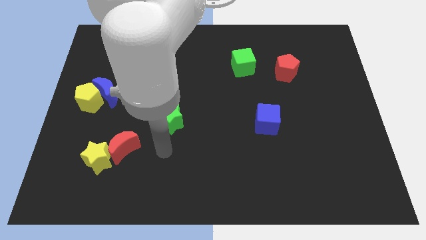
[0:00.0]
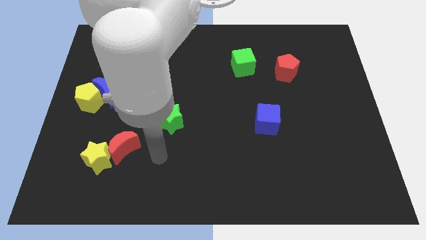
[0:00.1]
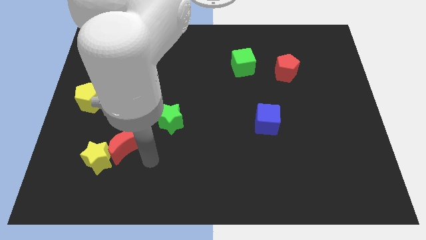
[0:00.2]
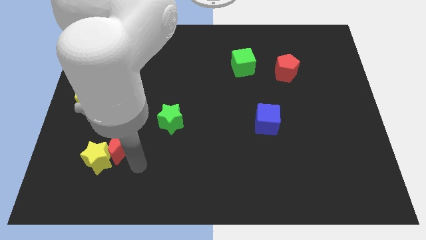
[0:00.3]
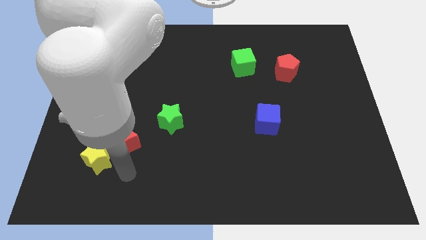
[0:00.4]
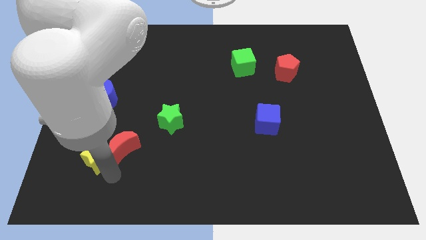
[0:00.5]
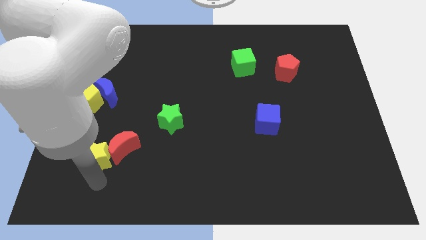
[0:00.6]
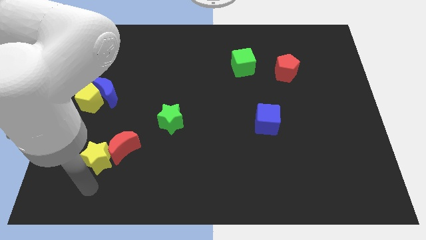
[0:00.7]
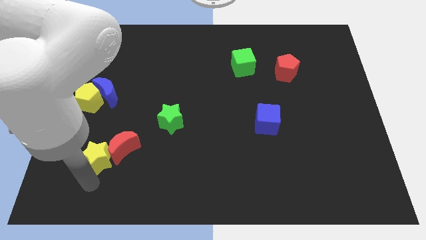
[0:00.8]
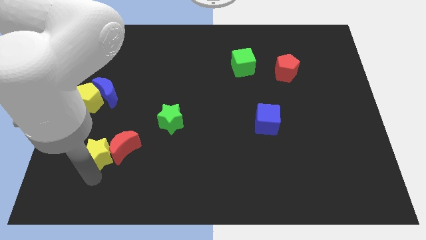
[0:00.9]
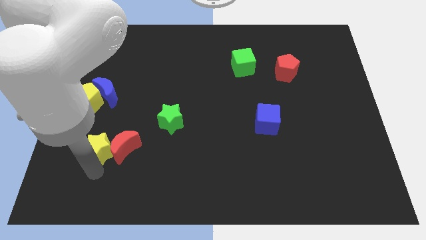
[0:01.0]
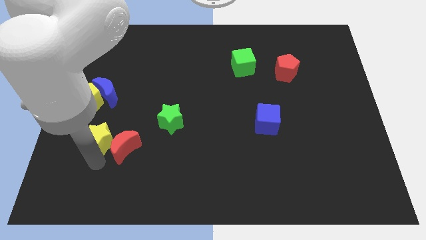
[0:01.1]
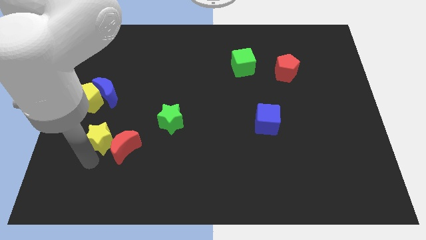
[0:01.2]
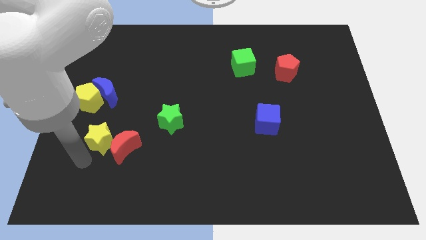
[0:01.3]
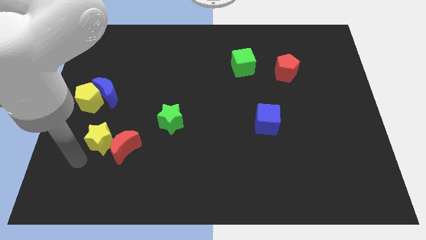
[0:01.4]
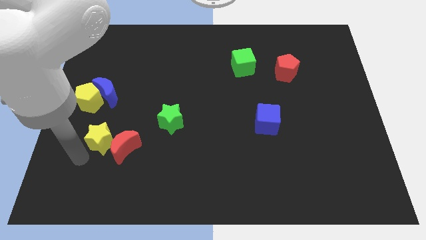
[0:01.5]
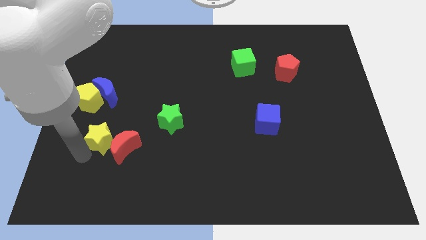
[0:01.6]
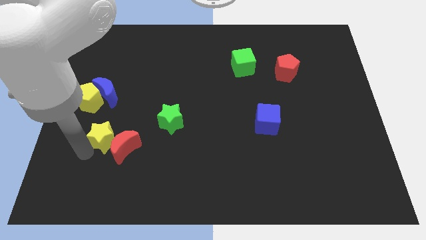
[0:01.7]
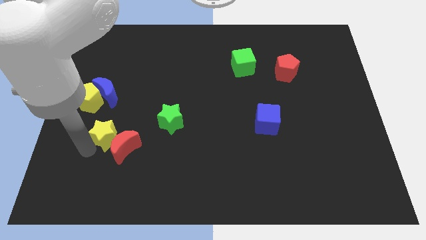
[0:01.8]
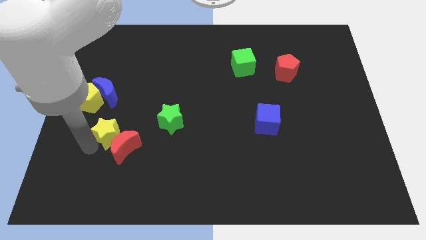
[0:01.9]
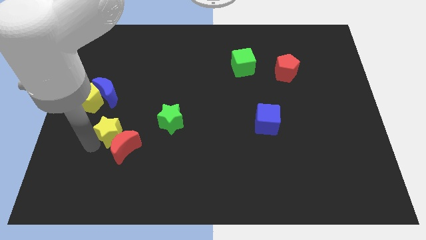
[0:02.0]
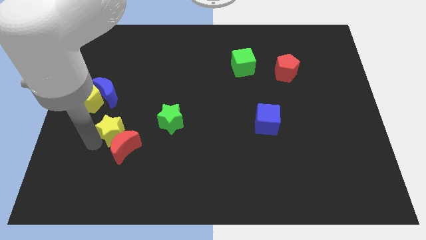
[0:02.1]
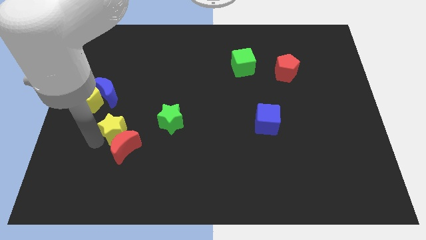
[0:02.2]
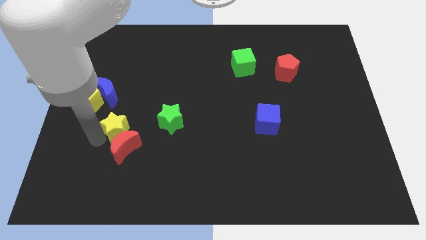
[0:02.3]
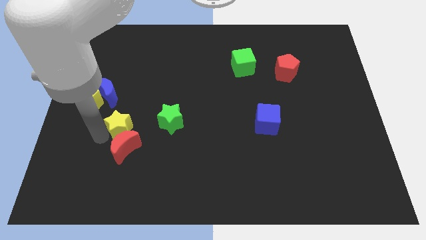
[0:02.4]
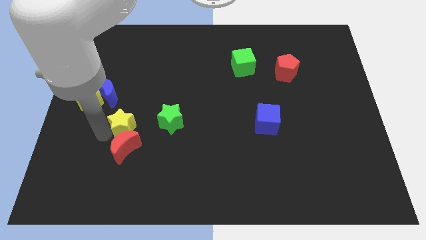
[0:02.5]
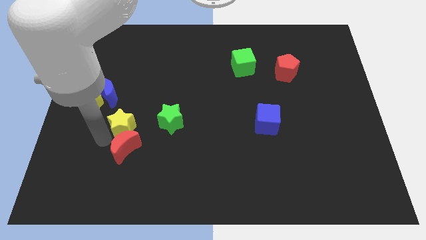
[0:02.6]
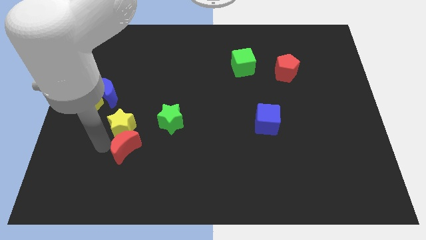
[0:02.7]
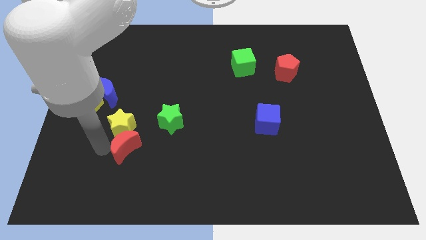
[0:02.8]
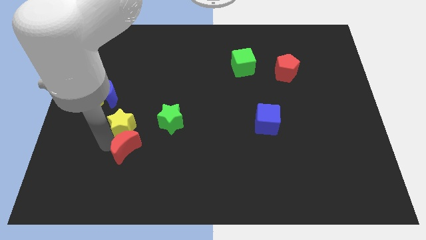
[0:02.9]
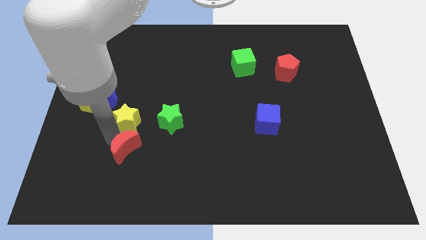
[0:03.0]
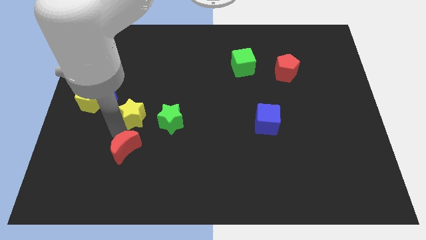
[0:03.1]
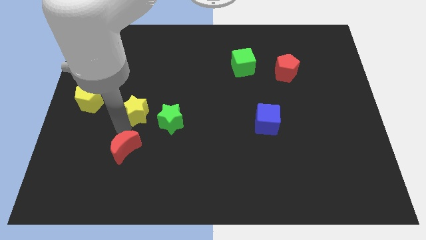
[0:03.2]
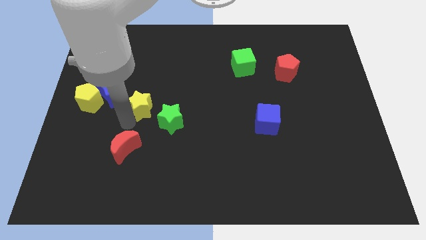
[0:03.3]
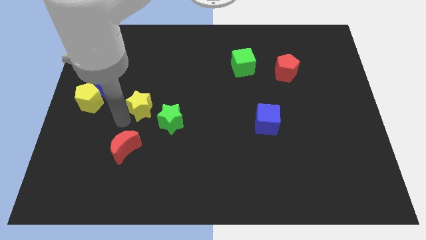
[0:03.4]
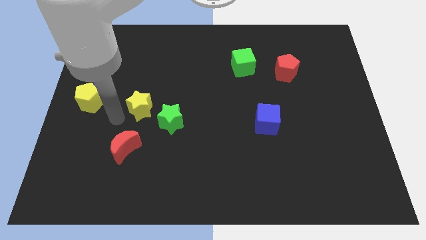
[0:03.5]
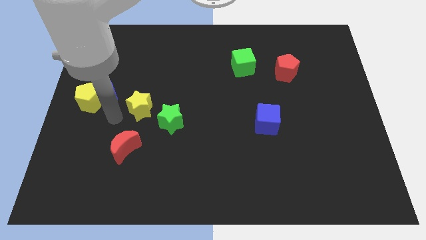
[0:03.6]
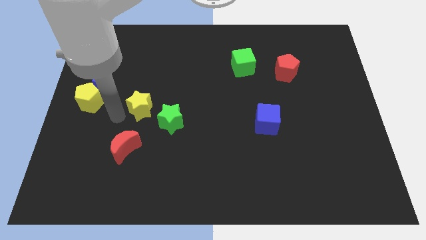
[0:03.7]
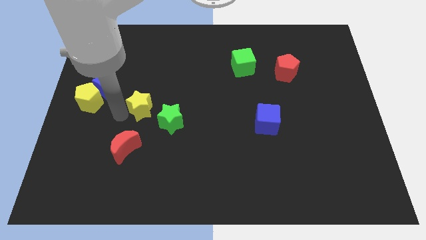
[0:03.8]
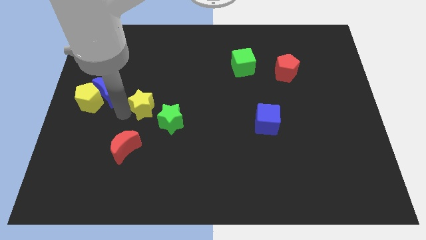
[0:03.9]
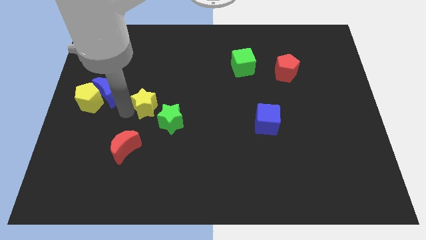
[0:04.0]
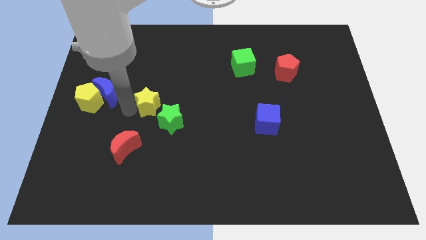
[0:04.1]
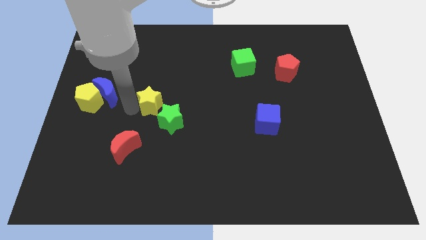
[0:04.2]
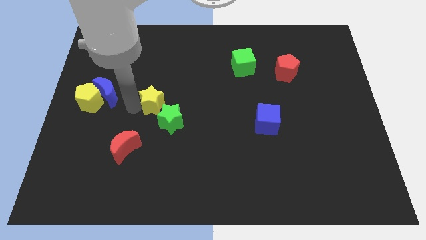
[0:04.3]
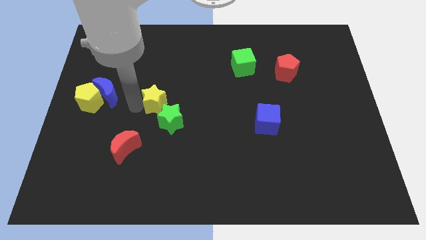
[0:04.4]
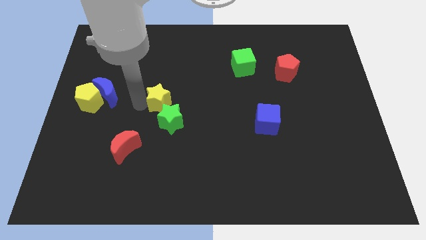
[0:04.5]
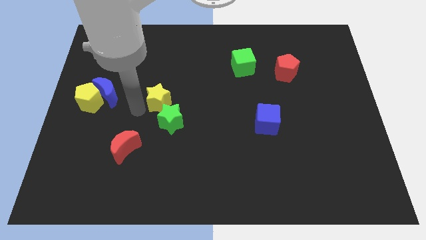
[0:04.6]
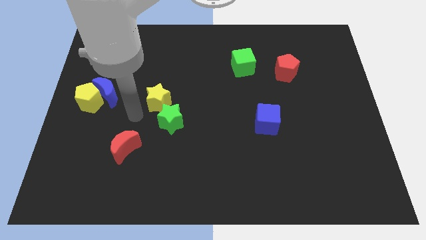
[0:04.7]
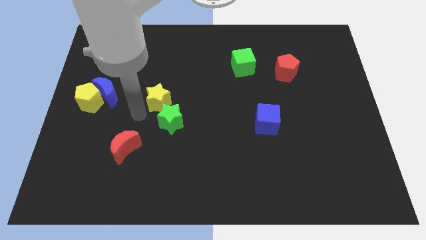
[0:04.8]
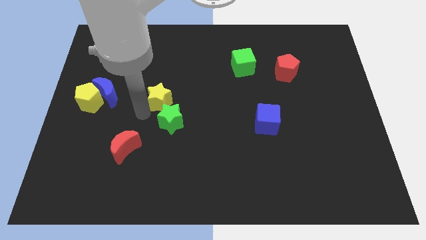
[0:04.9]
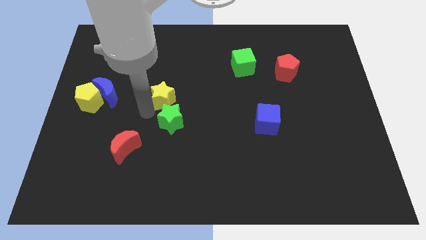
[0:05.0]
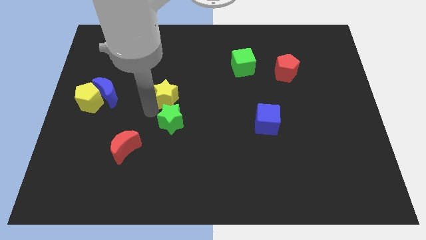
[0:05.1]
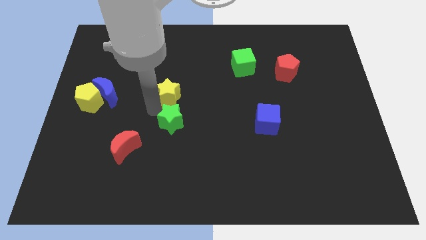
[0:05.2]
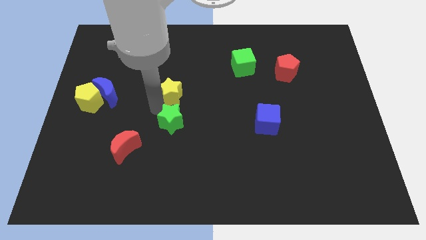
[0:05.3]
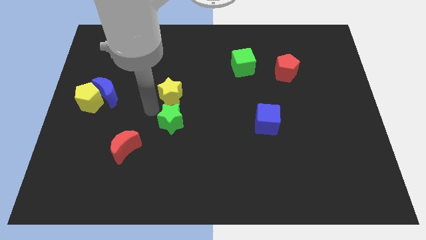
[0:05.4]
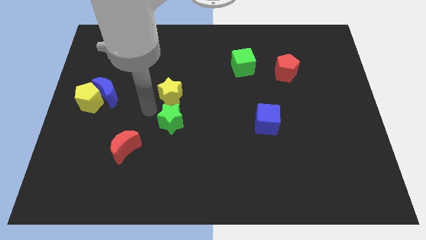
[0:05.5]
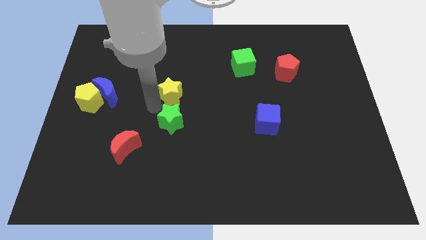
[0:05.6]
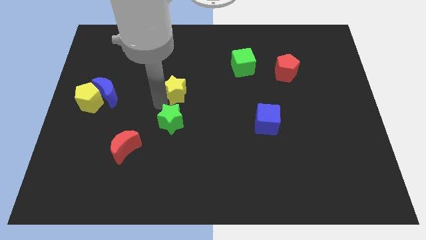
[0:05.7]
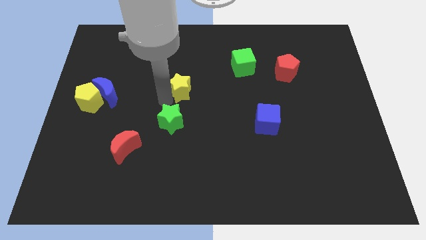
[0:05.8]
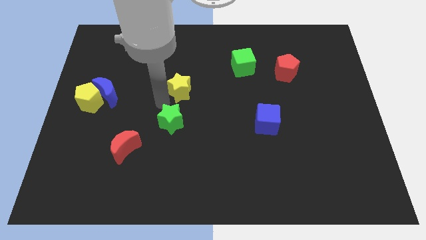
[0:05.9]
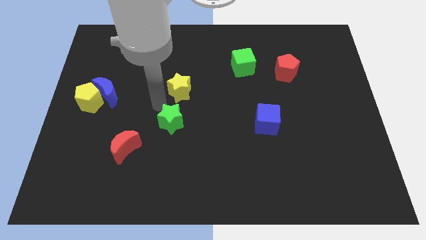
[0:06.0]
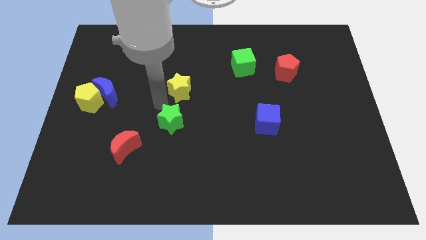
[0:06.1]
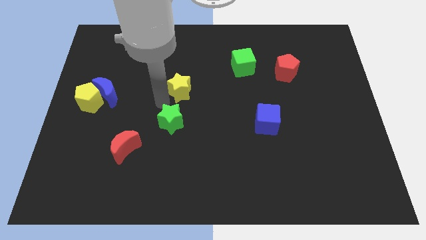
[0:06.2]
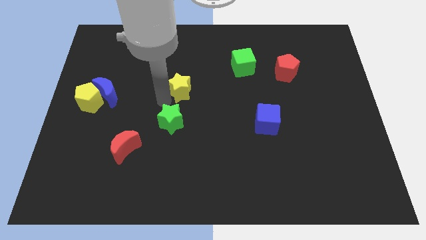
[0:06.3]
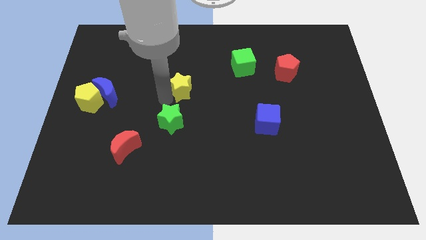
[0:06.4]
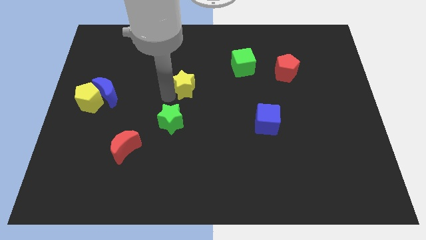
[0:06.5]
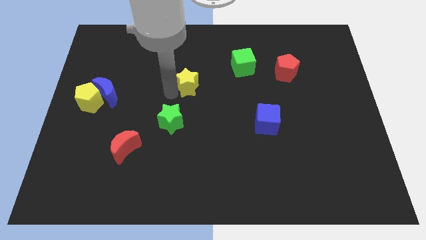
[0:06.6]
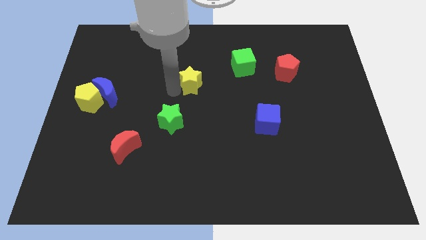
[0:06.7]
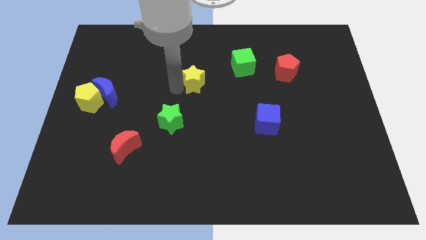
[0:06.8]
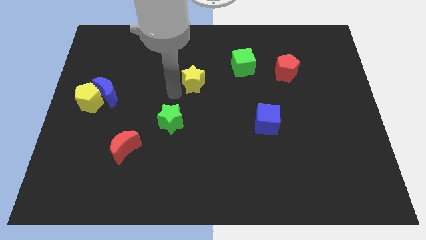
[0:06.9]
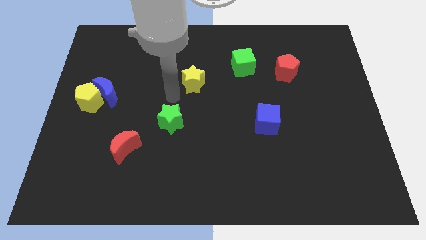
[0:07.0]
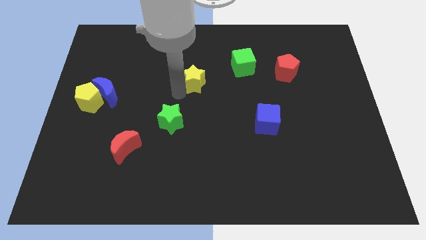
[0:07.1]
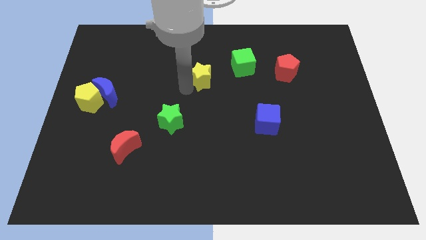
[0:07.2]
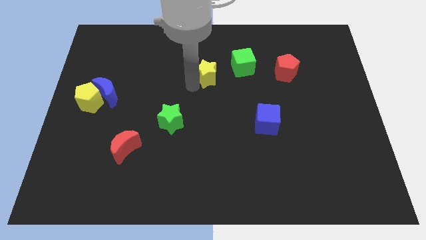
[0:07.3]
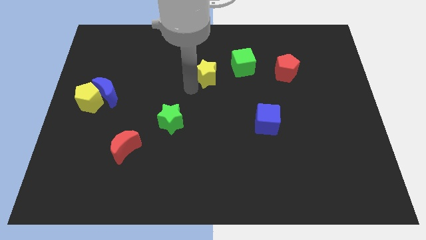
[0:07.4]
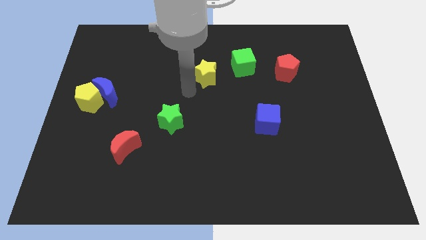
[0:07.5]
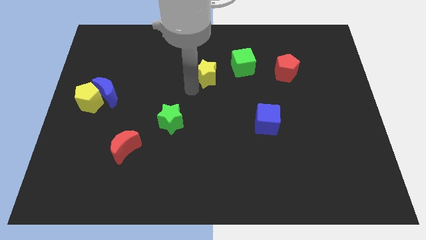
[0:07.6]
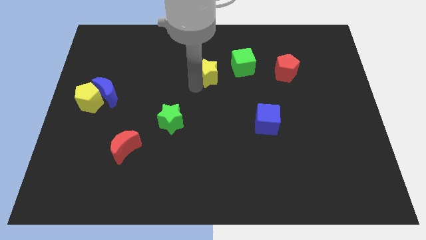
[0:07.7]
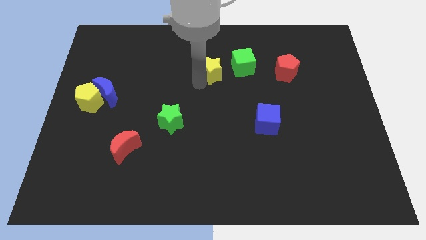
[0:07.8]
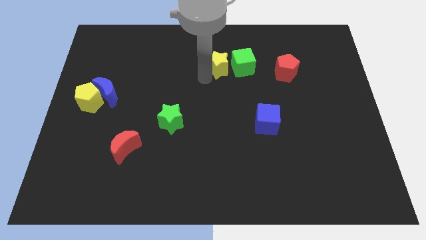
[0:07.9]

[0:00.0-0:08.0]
slide the yellow star towards the green cube
